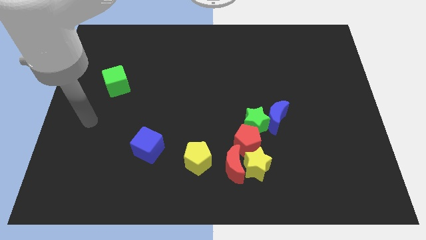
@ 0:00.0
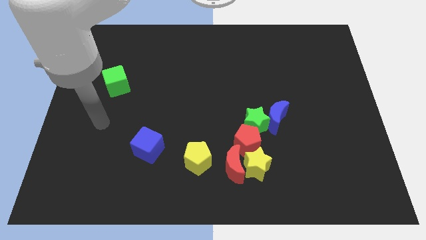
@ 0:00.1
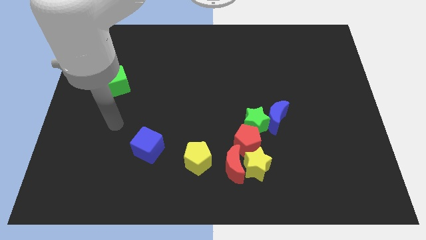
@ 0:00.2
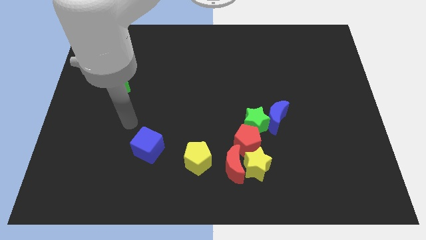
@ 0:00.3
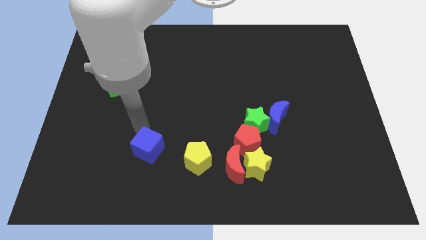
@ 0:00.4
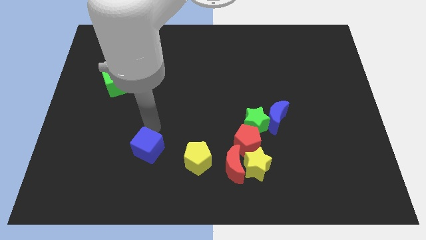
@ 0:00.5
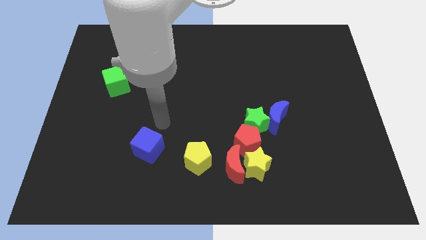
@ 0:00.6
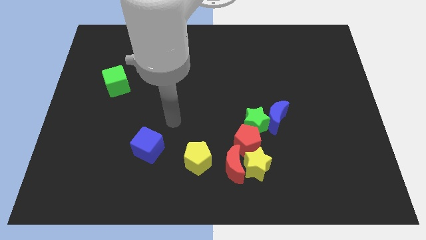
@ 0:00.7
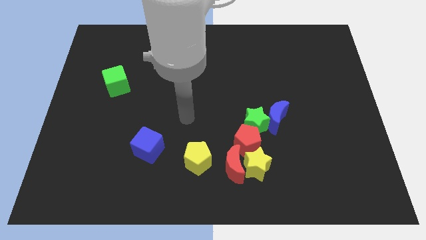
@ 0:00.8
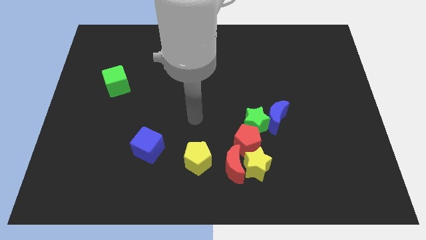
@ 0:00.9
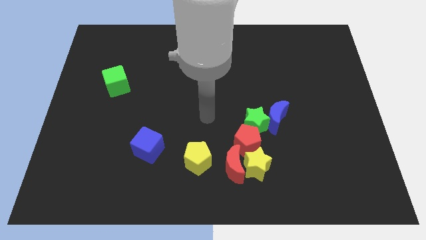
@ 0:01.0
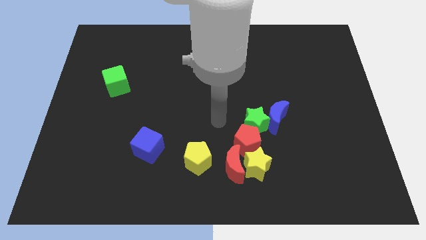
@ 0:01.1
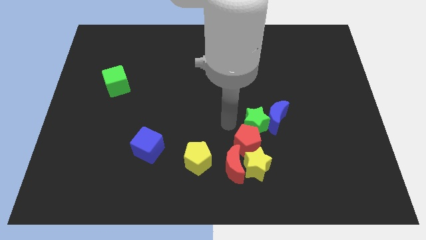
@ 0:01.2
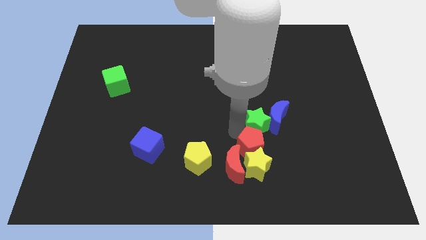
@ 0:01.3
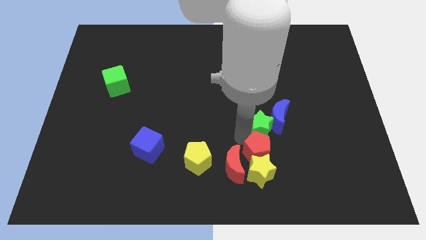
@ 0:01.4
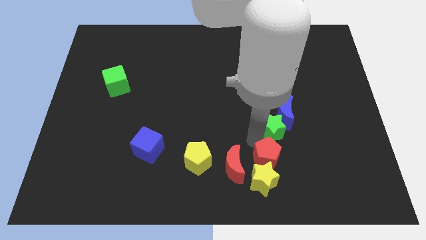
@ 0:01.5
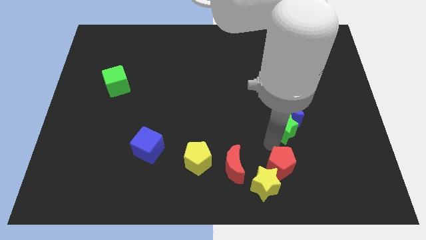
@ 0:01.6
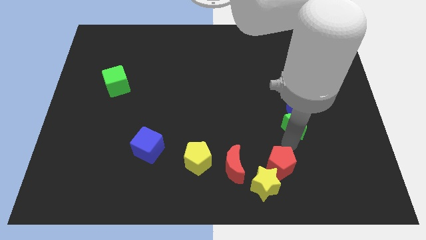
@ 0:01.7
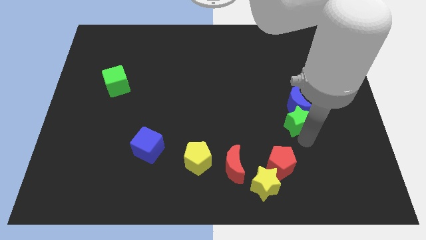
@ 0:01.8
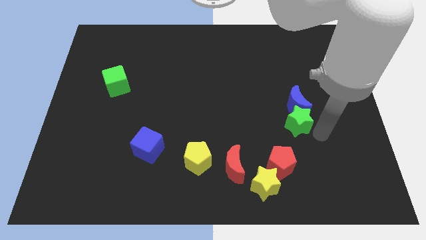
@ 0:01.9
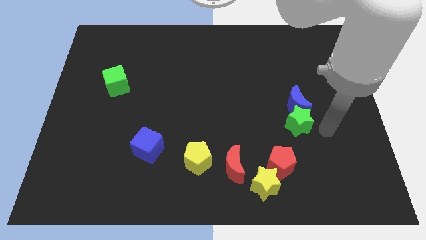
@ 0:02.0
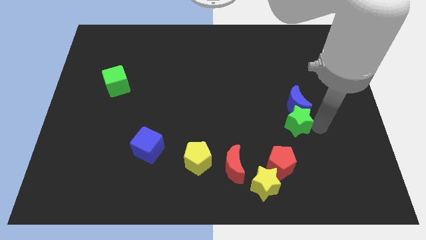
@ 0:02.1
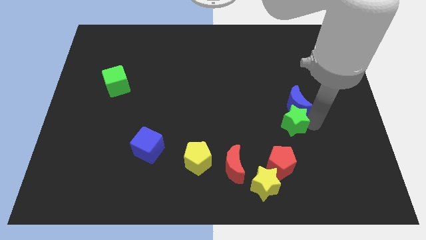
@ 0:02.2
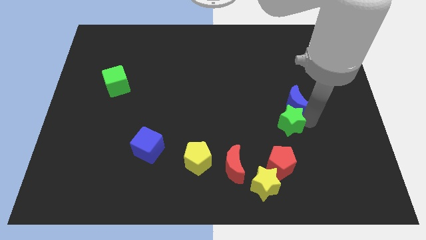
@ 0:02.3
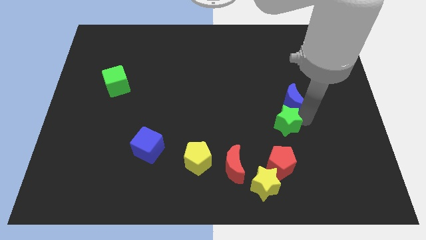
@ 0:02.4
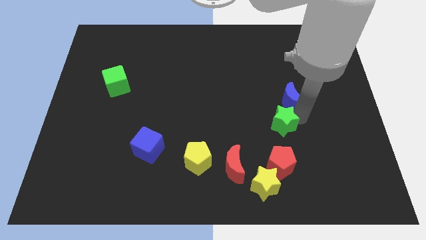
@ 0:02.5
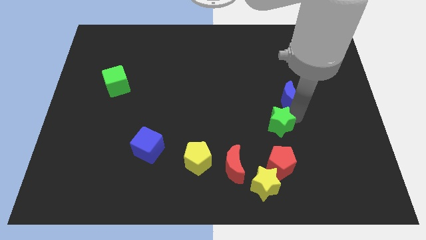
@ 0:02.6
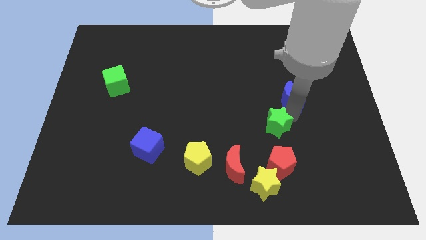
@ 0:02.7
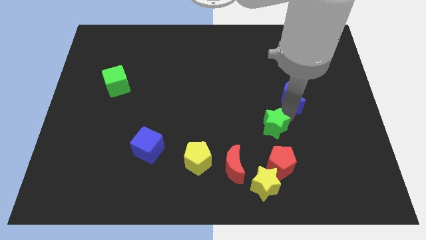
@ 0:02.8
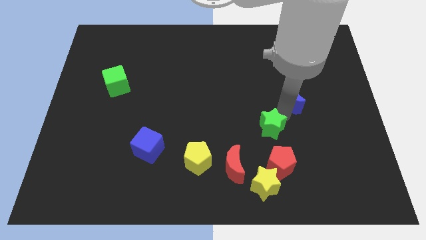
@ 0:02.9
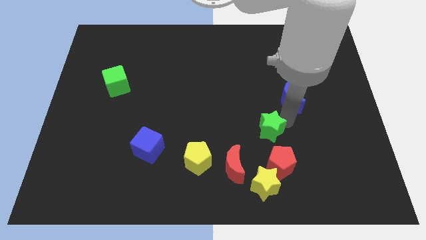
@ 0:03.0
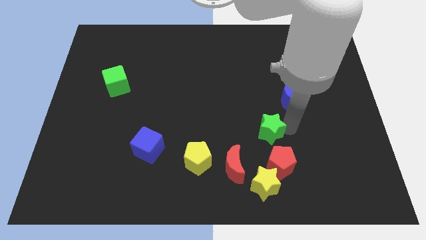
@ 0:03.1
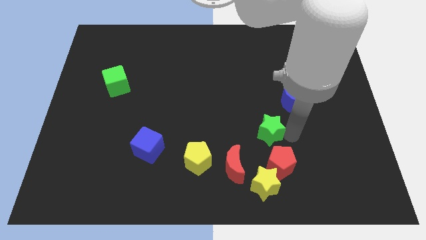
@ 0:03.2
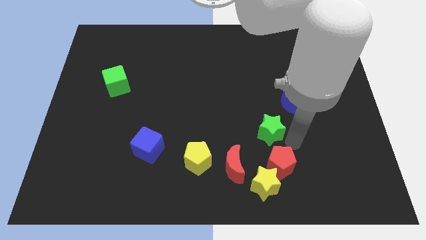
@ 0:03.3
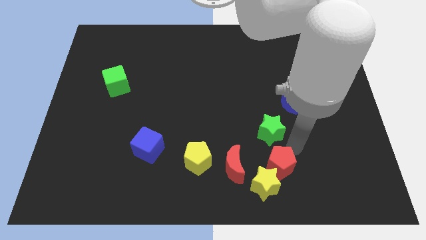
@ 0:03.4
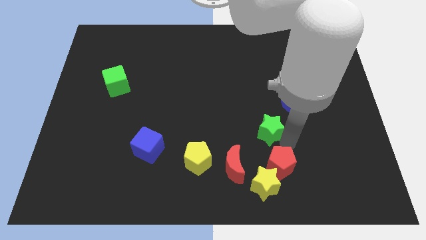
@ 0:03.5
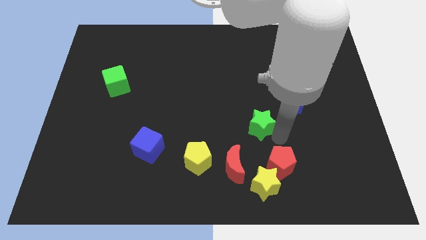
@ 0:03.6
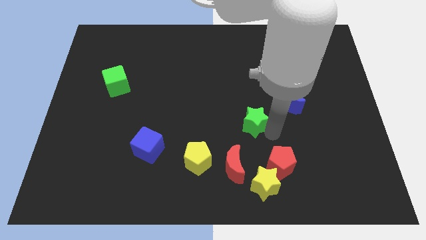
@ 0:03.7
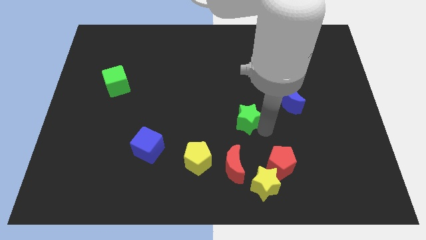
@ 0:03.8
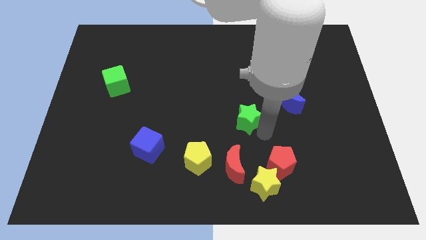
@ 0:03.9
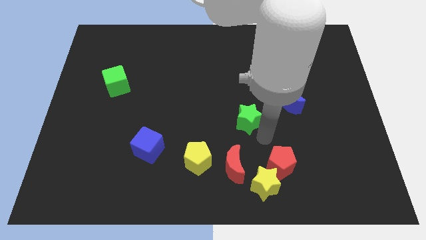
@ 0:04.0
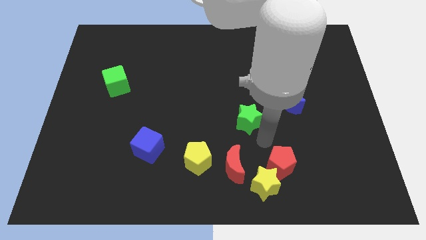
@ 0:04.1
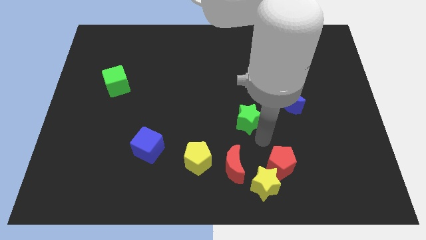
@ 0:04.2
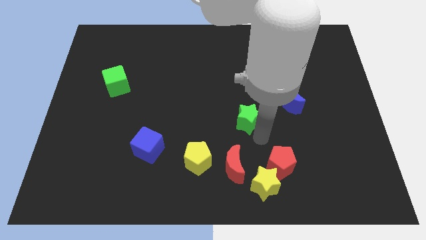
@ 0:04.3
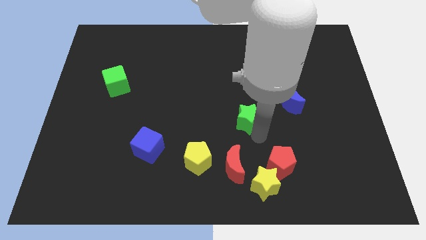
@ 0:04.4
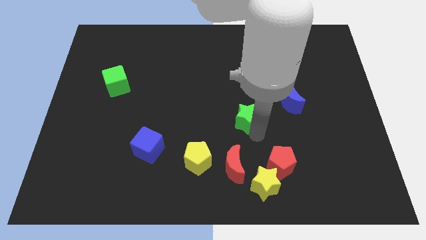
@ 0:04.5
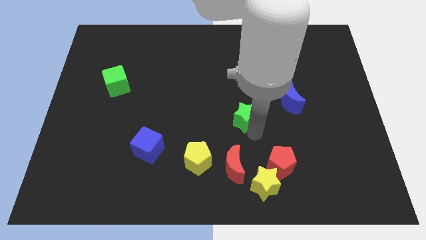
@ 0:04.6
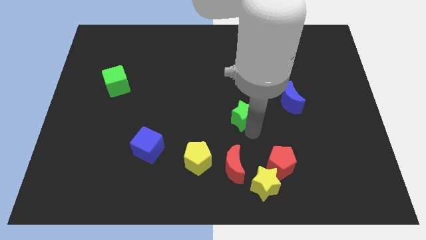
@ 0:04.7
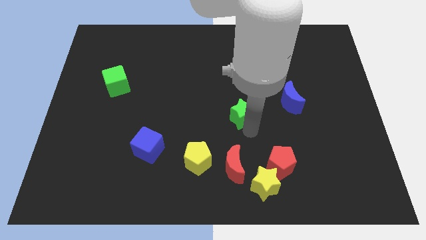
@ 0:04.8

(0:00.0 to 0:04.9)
separate the green star from the blue moon and red pentagon

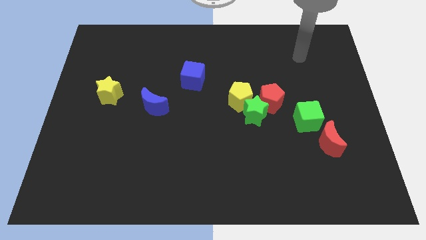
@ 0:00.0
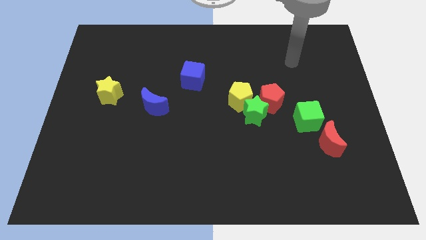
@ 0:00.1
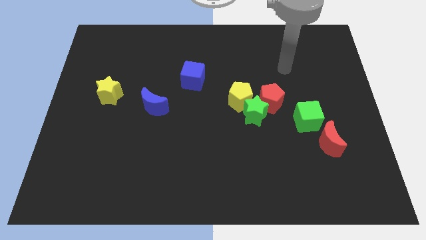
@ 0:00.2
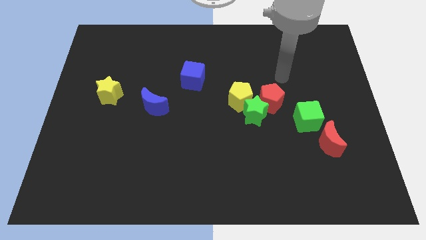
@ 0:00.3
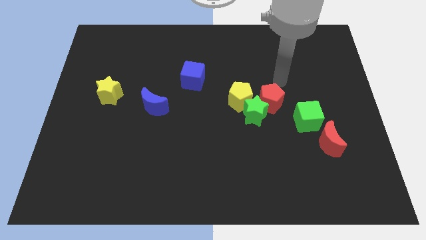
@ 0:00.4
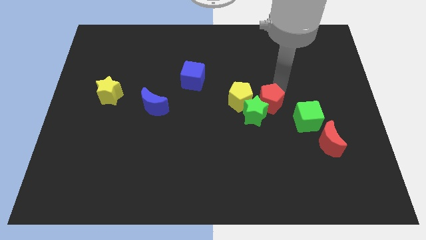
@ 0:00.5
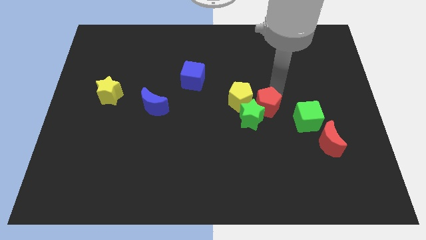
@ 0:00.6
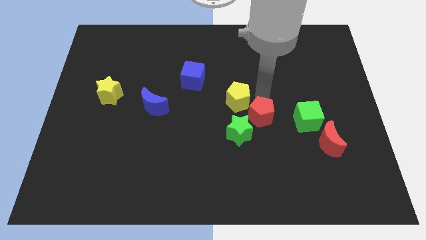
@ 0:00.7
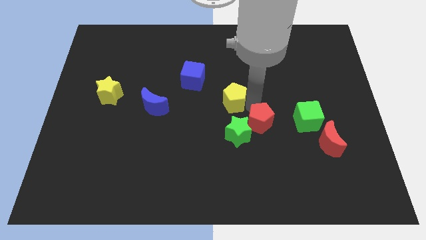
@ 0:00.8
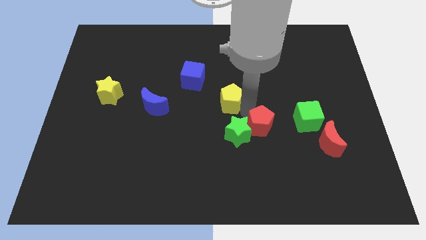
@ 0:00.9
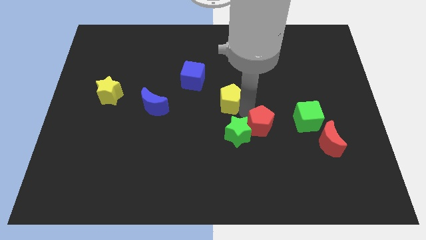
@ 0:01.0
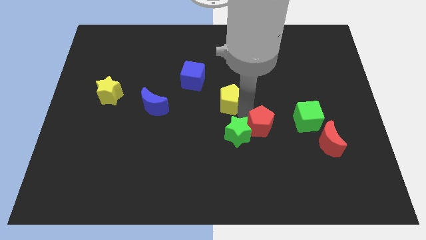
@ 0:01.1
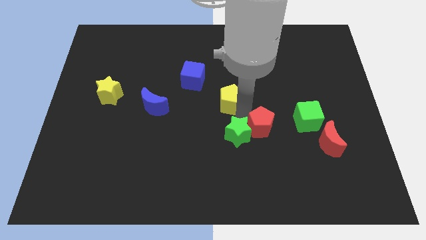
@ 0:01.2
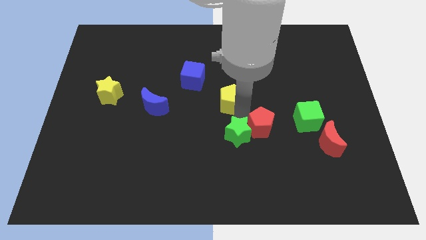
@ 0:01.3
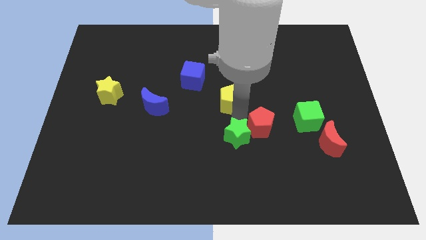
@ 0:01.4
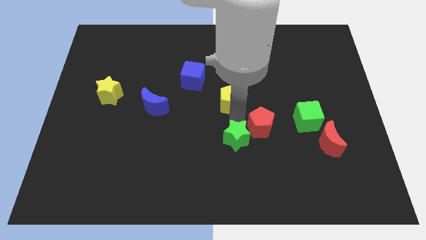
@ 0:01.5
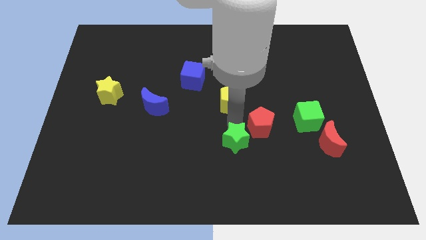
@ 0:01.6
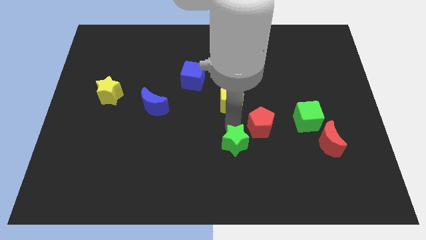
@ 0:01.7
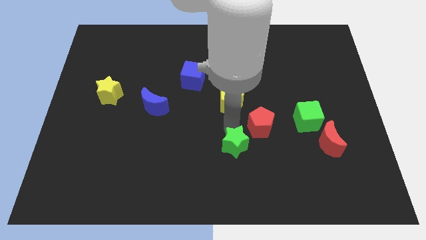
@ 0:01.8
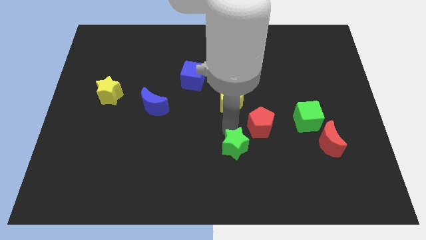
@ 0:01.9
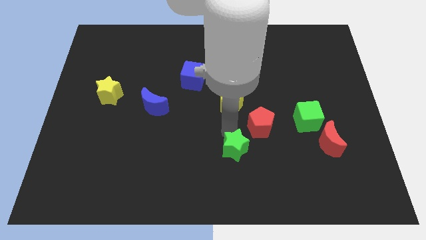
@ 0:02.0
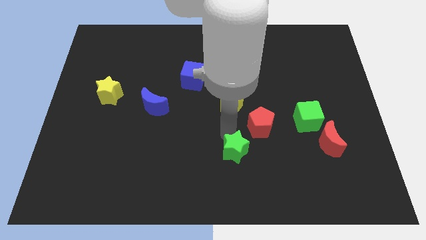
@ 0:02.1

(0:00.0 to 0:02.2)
pull the green star apart from the yellow pentagon and red pentagon

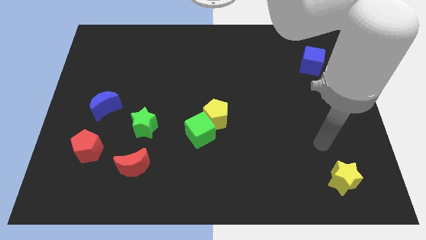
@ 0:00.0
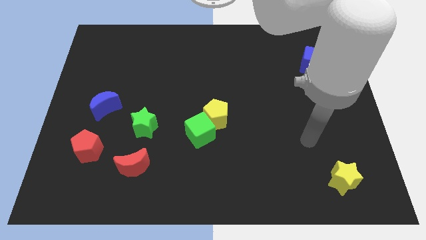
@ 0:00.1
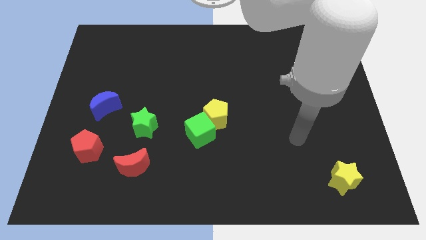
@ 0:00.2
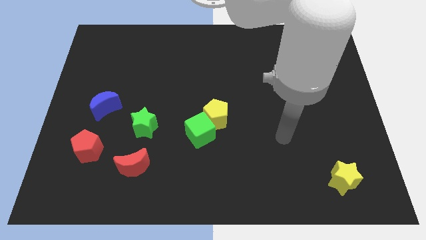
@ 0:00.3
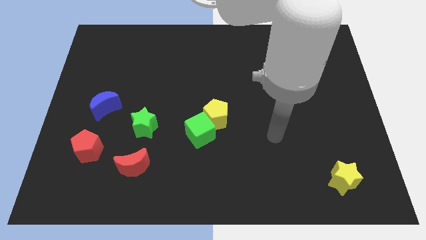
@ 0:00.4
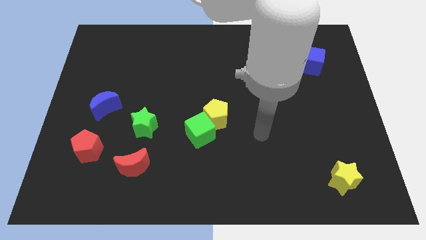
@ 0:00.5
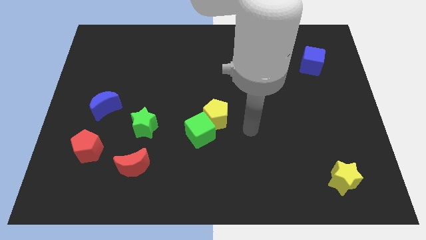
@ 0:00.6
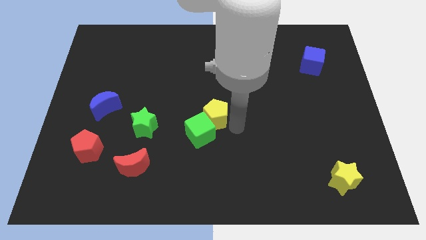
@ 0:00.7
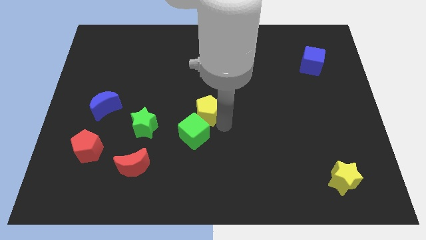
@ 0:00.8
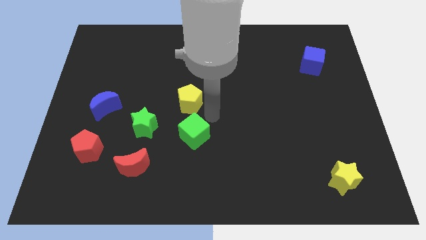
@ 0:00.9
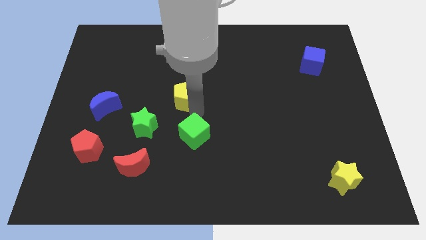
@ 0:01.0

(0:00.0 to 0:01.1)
separate the green cube from the yellow pentagon

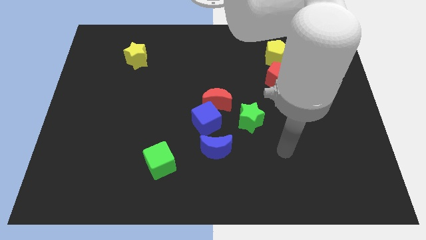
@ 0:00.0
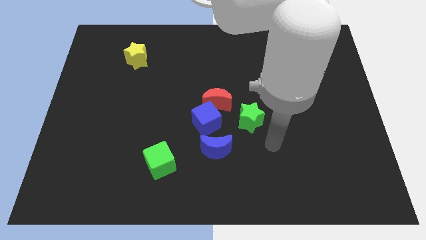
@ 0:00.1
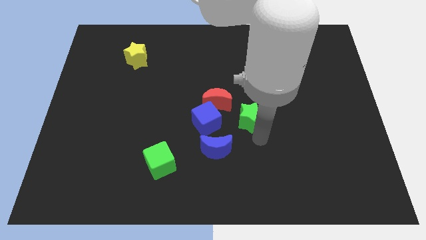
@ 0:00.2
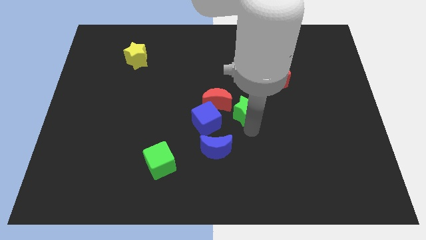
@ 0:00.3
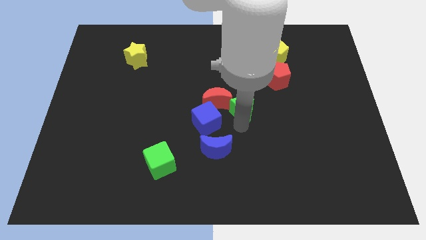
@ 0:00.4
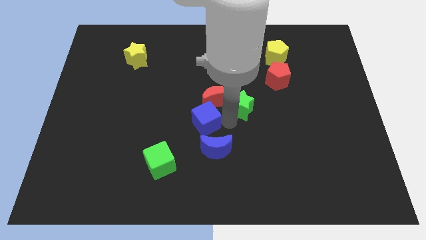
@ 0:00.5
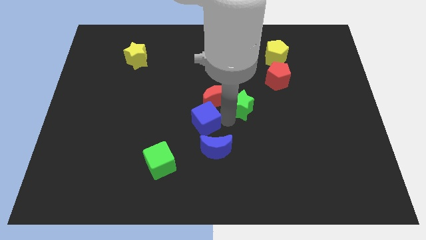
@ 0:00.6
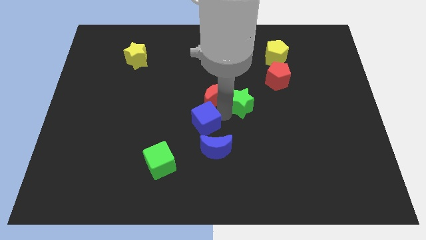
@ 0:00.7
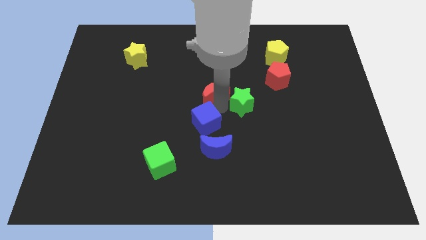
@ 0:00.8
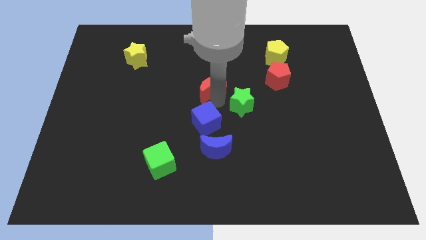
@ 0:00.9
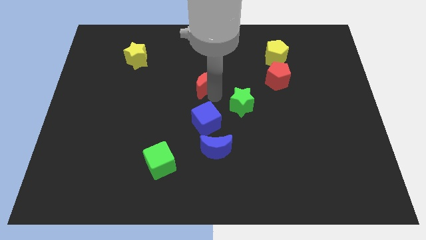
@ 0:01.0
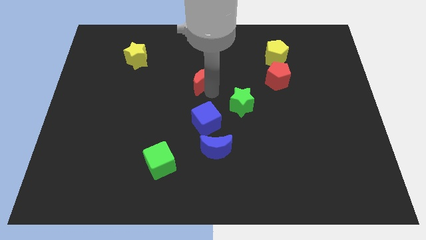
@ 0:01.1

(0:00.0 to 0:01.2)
separate the red moon from the blue cube and green star
